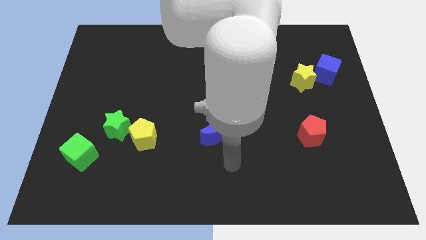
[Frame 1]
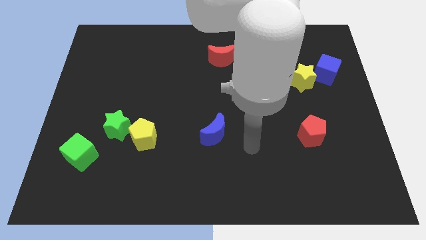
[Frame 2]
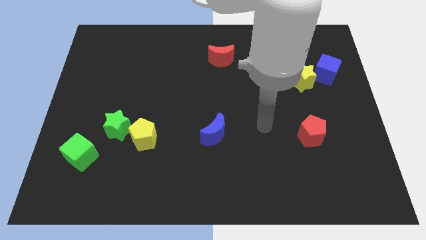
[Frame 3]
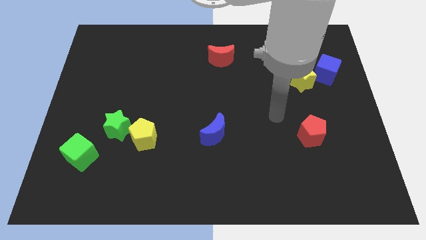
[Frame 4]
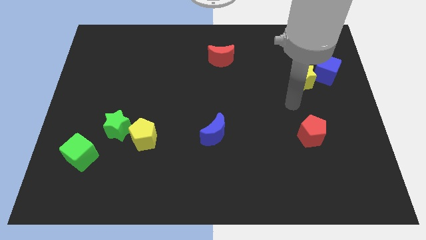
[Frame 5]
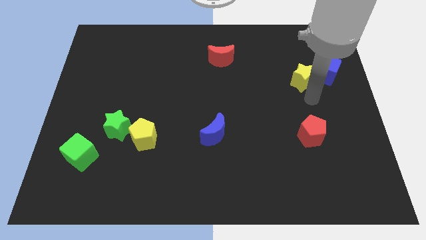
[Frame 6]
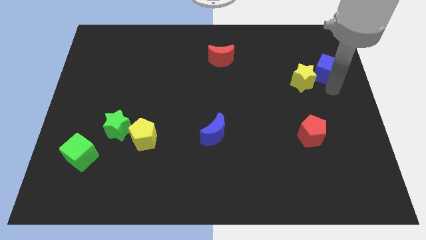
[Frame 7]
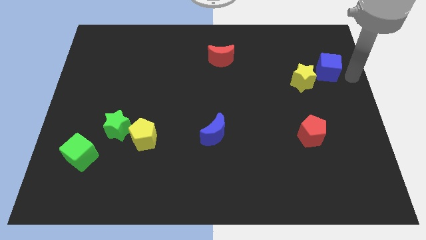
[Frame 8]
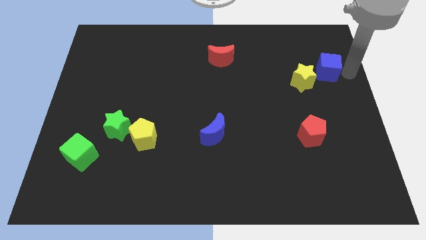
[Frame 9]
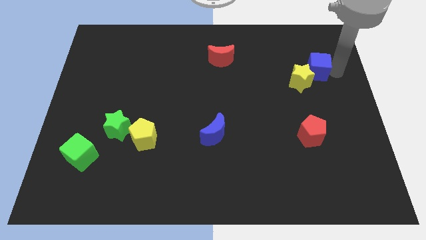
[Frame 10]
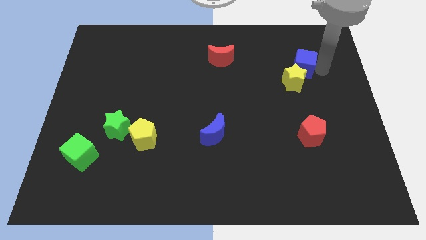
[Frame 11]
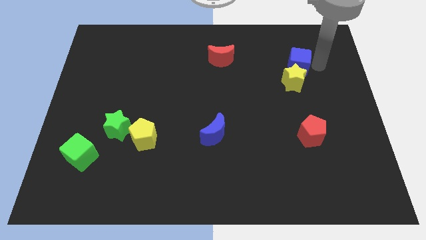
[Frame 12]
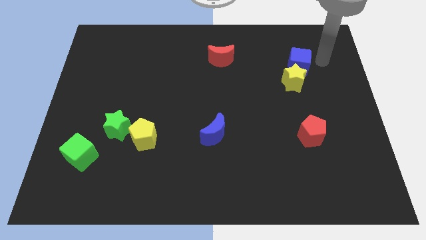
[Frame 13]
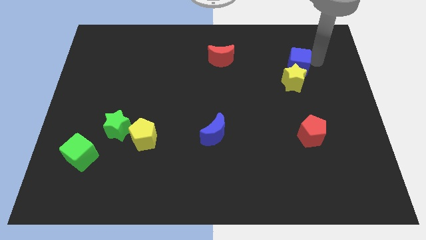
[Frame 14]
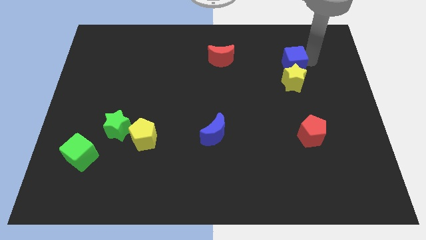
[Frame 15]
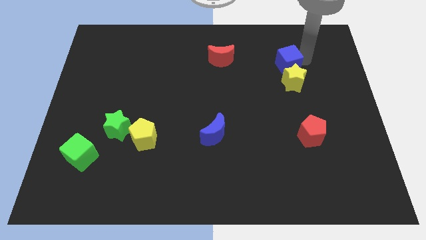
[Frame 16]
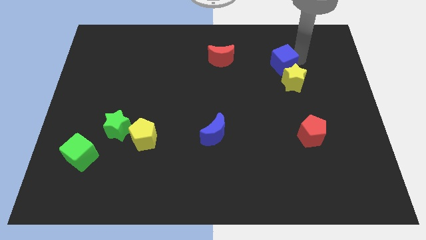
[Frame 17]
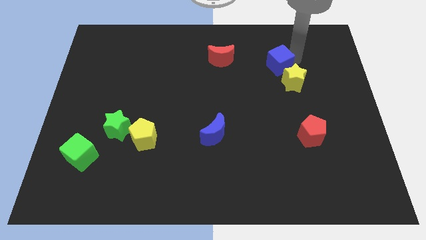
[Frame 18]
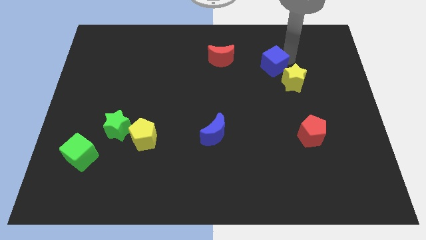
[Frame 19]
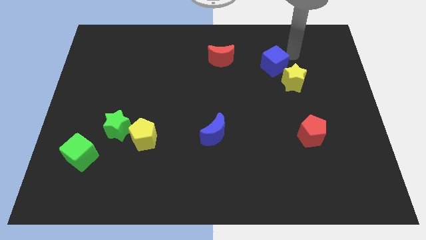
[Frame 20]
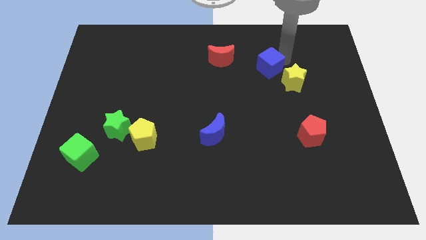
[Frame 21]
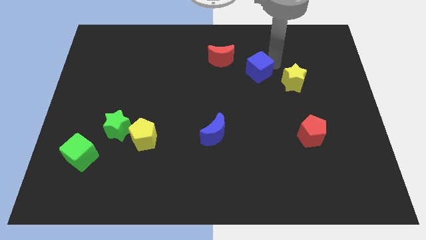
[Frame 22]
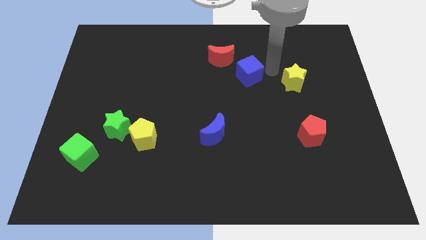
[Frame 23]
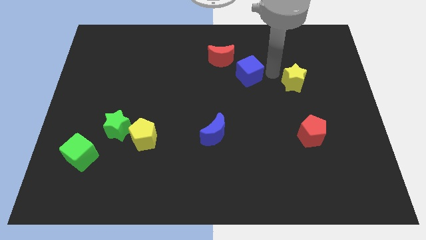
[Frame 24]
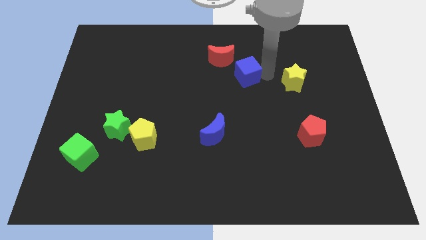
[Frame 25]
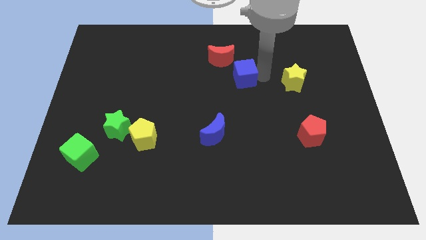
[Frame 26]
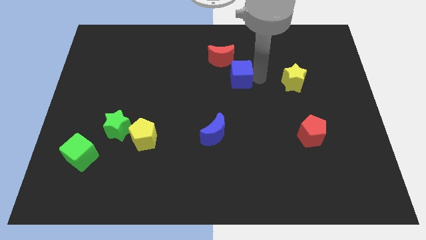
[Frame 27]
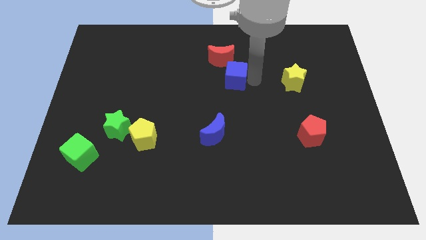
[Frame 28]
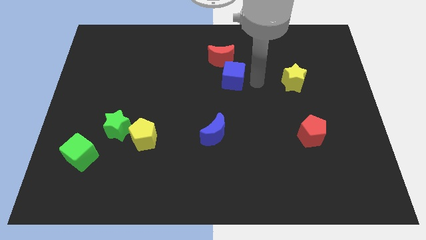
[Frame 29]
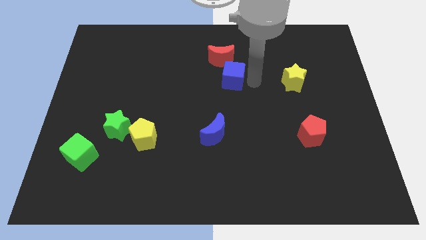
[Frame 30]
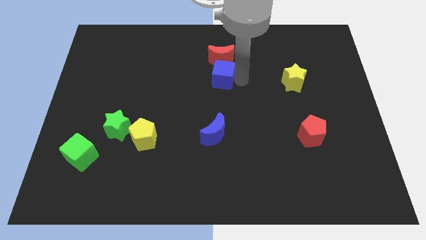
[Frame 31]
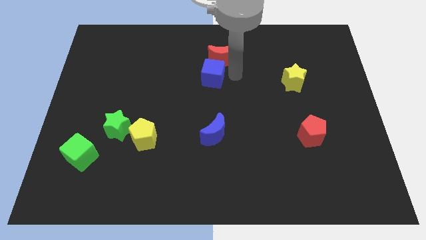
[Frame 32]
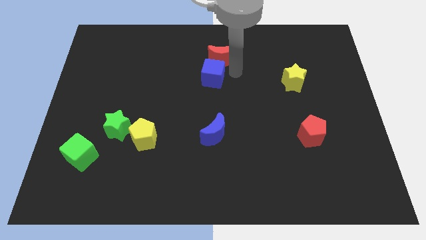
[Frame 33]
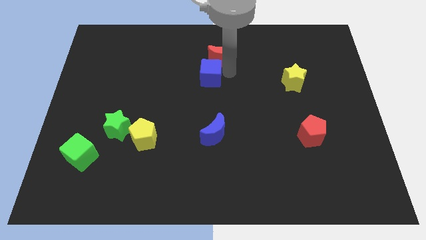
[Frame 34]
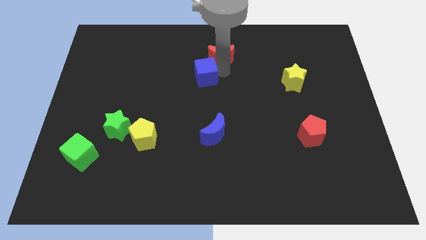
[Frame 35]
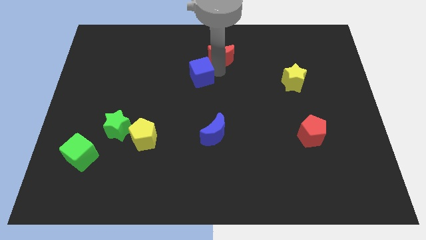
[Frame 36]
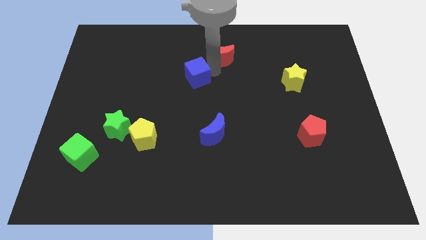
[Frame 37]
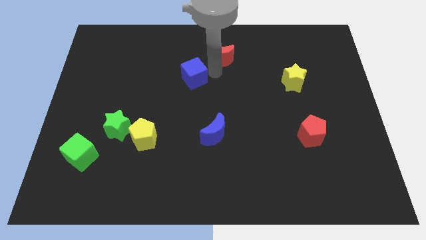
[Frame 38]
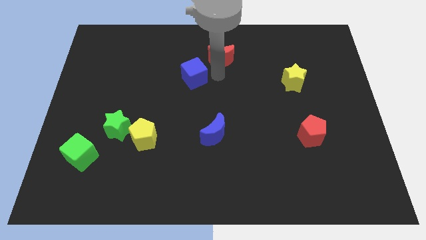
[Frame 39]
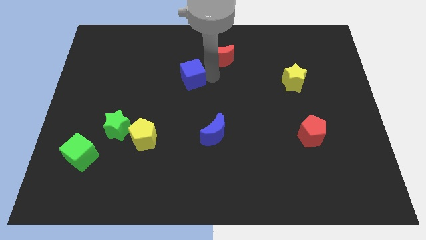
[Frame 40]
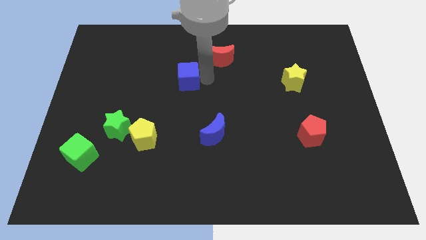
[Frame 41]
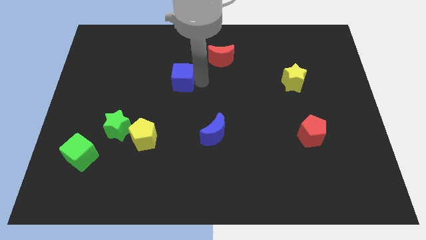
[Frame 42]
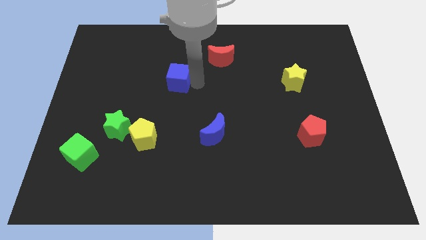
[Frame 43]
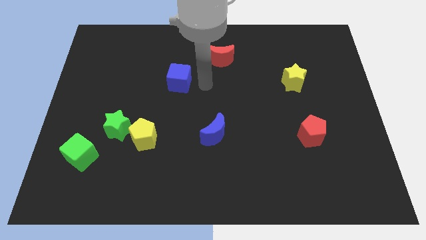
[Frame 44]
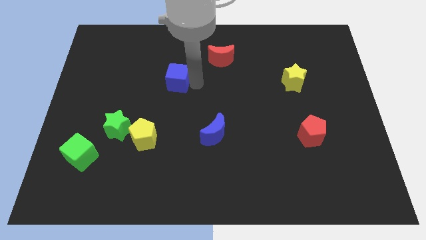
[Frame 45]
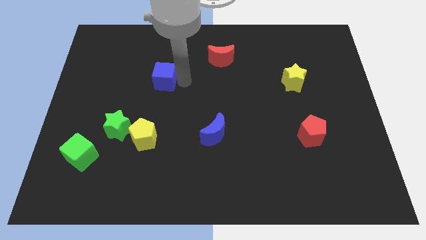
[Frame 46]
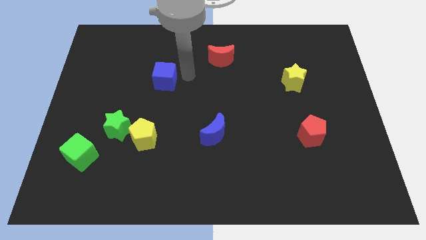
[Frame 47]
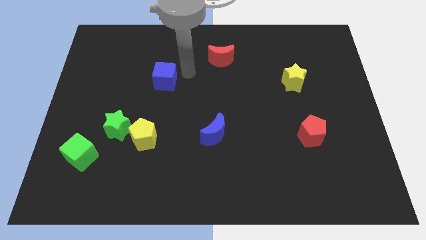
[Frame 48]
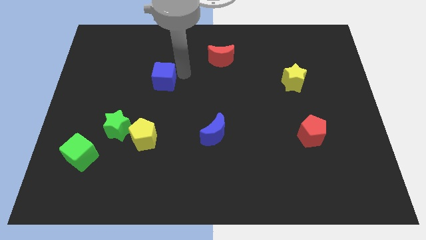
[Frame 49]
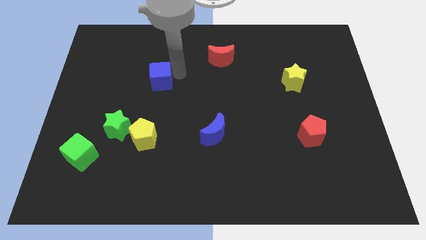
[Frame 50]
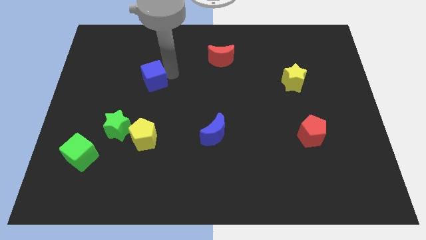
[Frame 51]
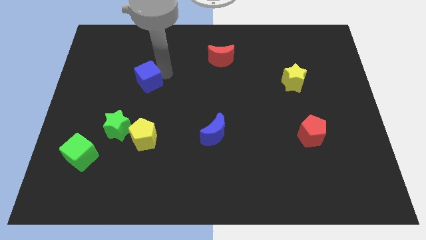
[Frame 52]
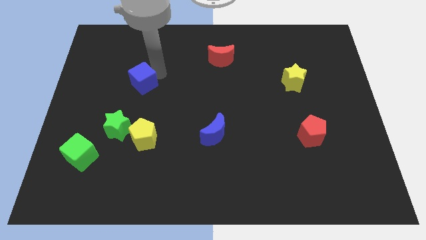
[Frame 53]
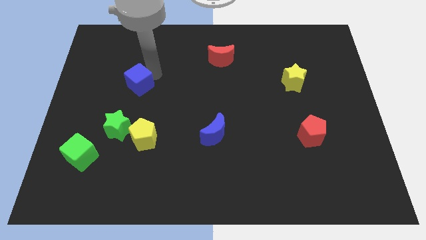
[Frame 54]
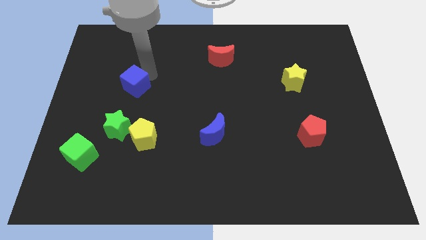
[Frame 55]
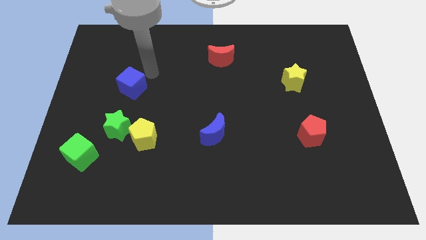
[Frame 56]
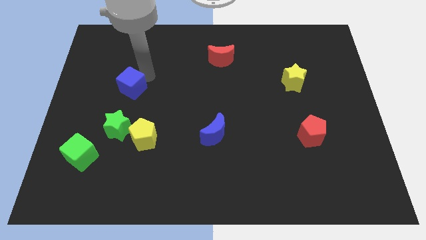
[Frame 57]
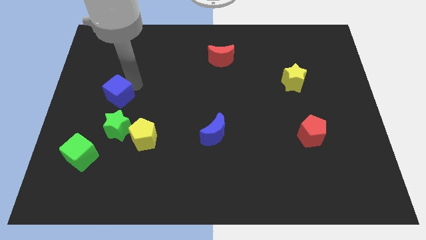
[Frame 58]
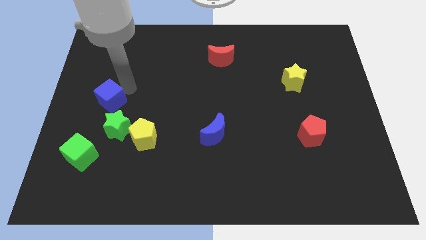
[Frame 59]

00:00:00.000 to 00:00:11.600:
push the blue cube to the top left side of the green star
